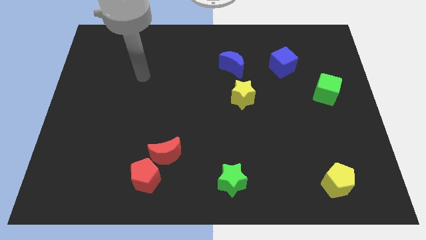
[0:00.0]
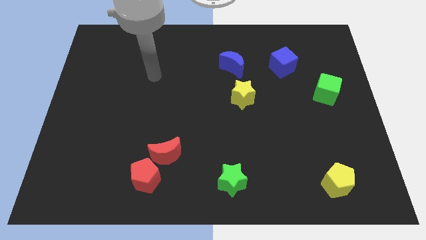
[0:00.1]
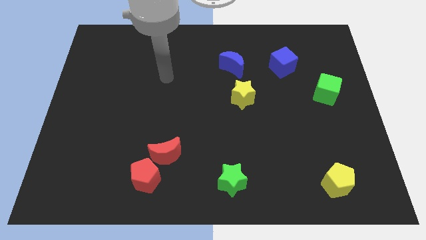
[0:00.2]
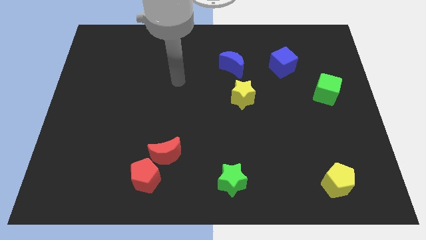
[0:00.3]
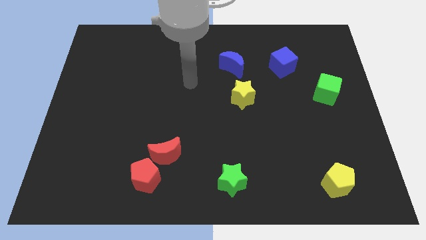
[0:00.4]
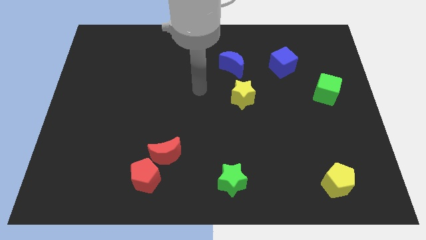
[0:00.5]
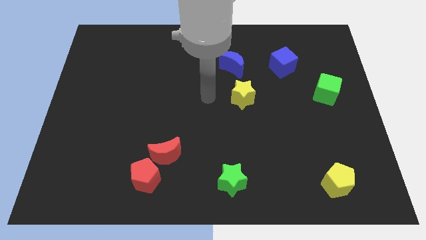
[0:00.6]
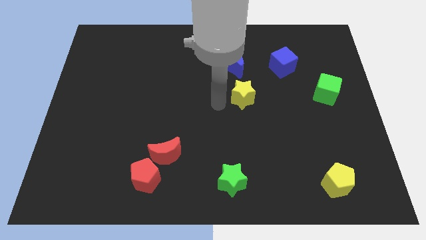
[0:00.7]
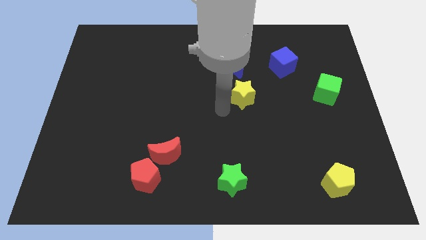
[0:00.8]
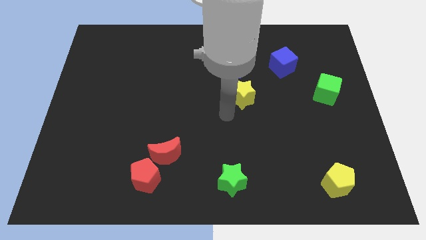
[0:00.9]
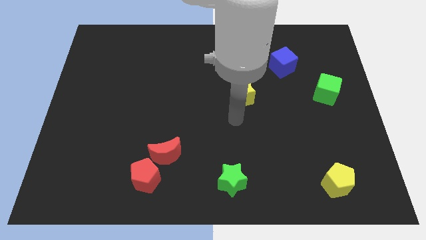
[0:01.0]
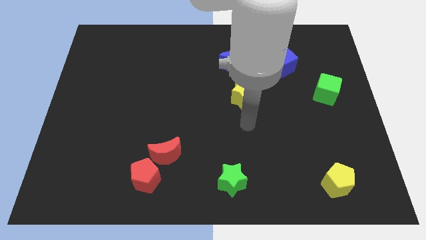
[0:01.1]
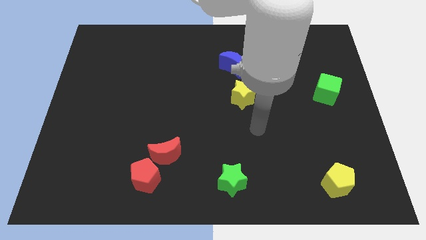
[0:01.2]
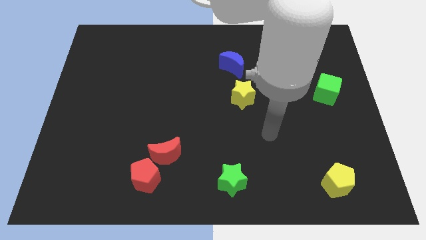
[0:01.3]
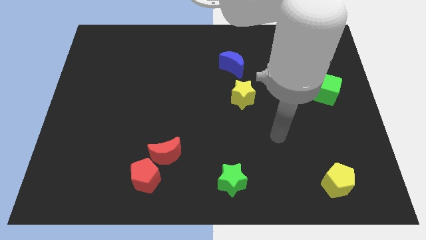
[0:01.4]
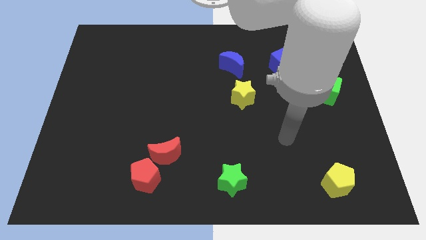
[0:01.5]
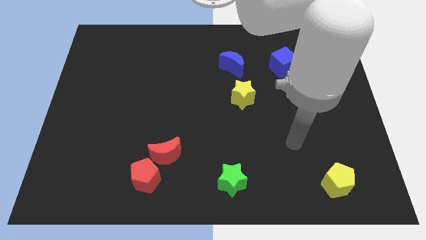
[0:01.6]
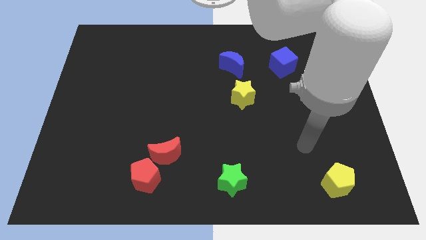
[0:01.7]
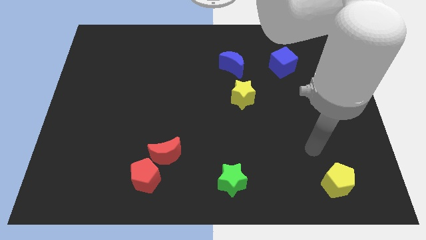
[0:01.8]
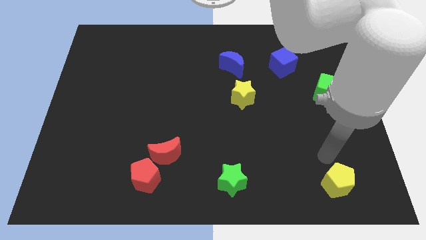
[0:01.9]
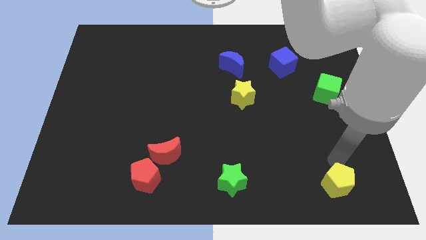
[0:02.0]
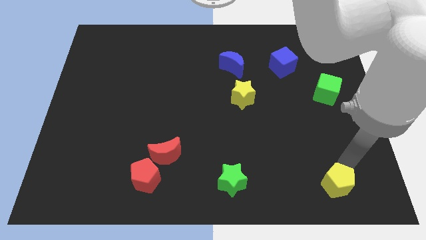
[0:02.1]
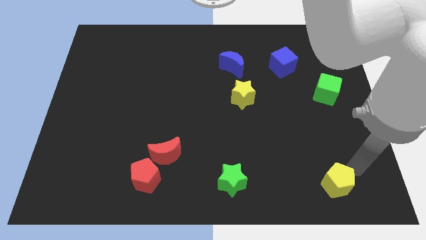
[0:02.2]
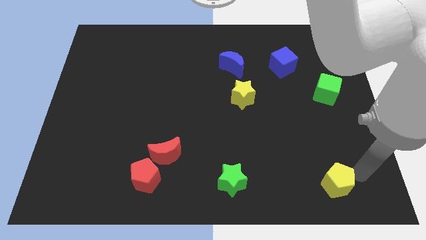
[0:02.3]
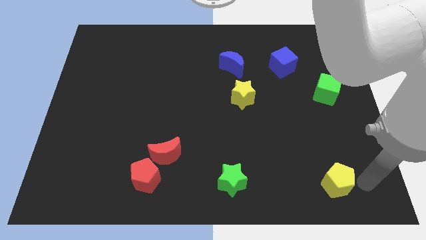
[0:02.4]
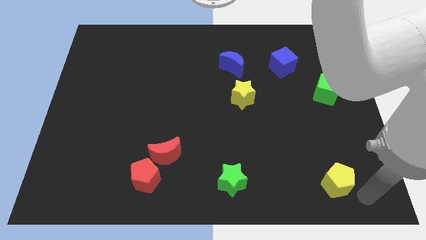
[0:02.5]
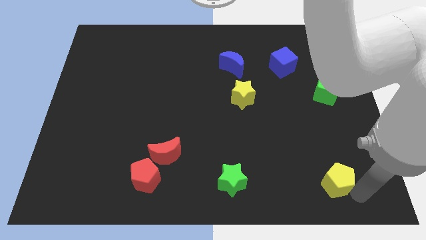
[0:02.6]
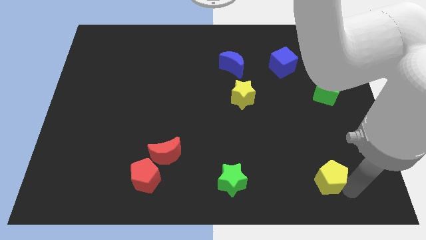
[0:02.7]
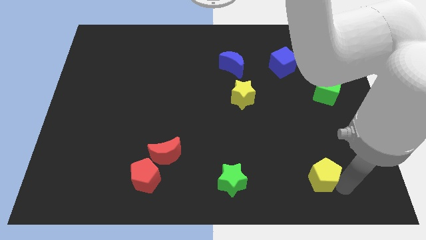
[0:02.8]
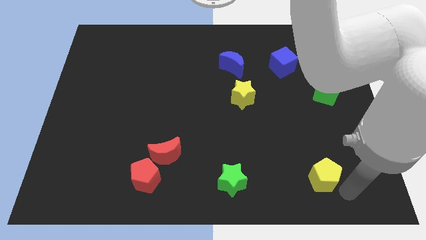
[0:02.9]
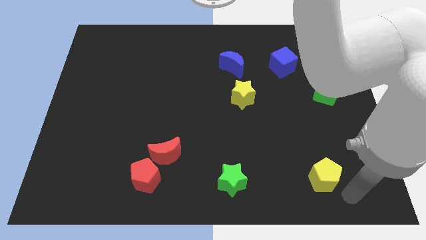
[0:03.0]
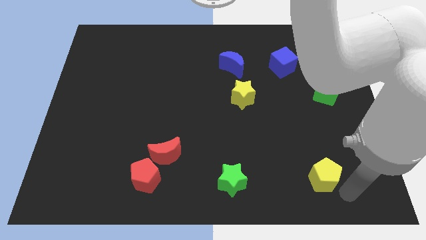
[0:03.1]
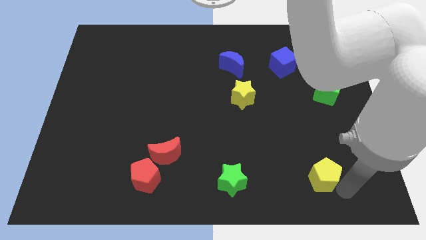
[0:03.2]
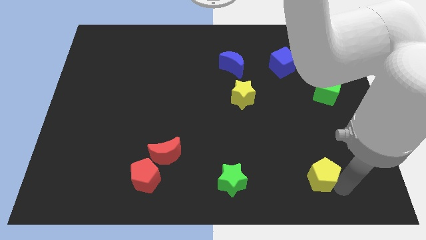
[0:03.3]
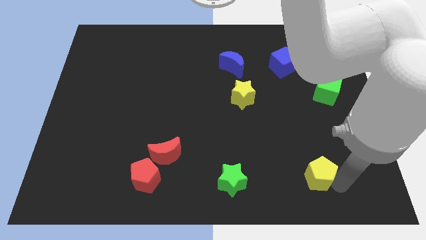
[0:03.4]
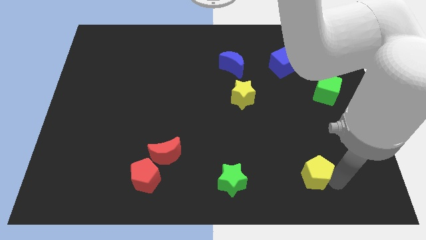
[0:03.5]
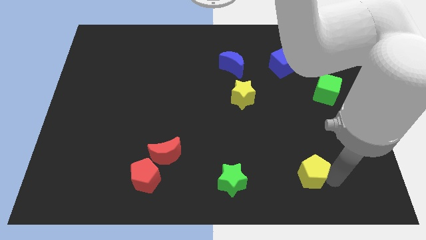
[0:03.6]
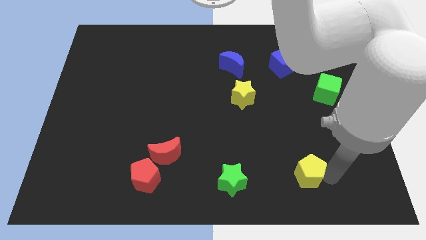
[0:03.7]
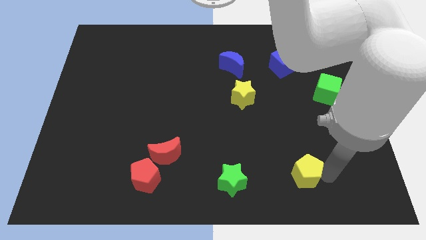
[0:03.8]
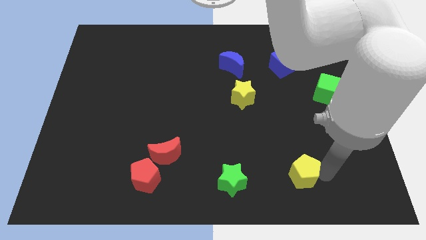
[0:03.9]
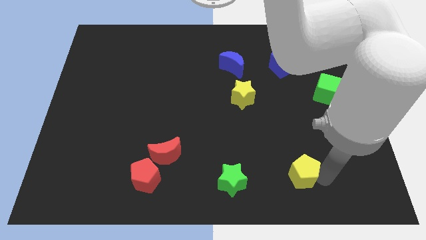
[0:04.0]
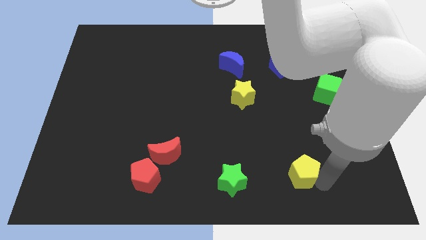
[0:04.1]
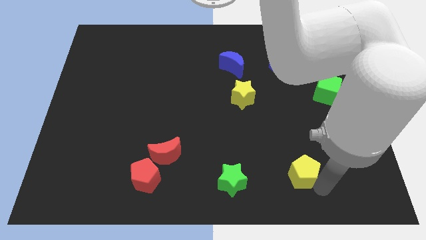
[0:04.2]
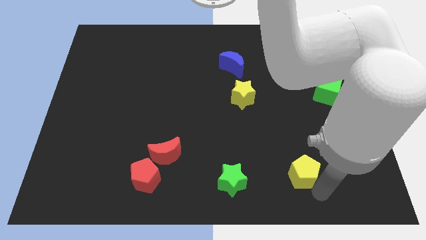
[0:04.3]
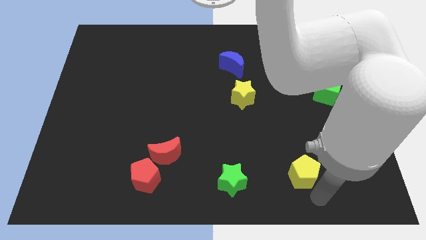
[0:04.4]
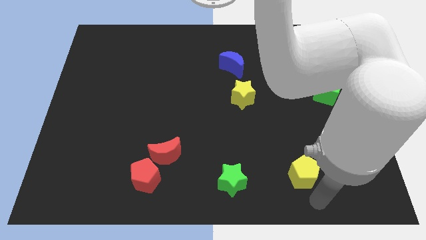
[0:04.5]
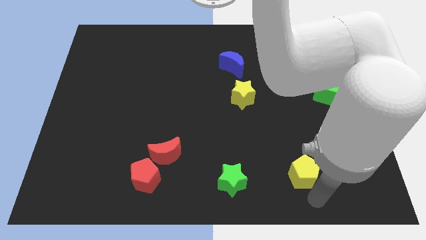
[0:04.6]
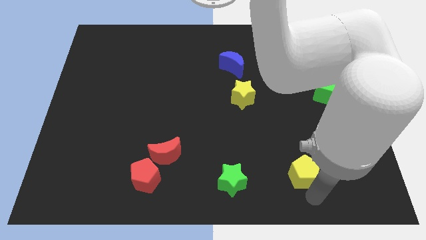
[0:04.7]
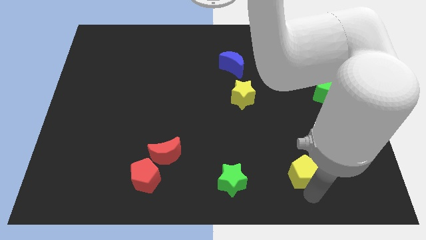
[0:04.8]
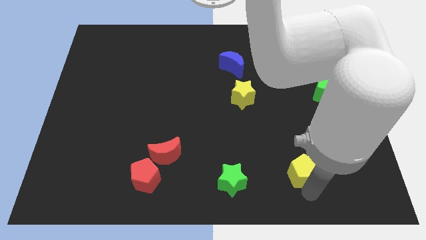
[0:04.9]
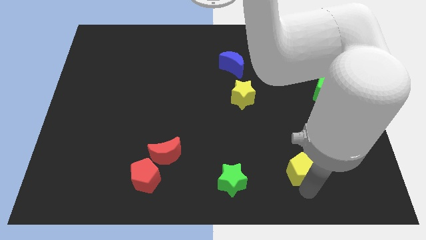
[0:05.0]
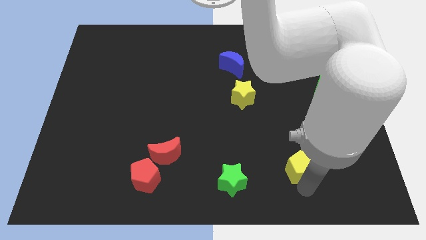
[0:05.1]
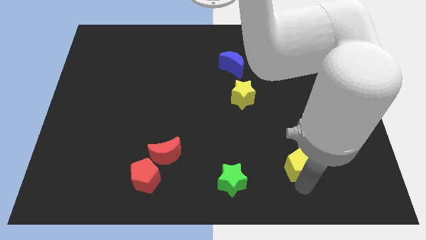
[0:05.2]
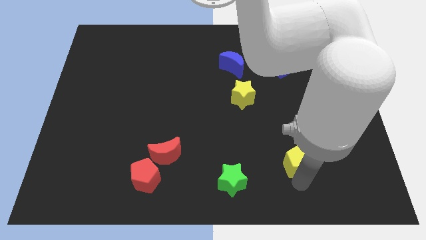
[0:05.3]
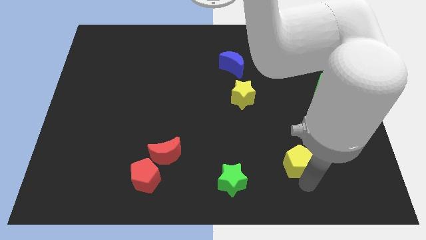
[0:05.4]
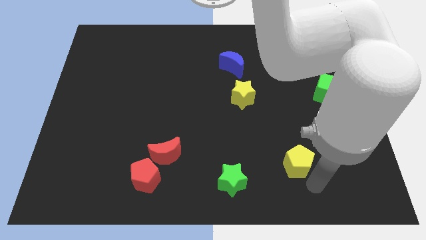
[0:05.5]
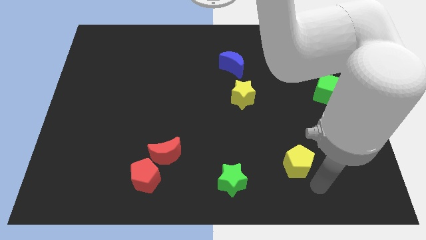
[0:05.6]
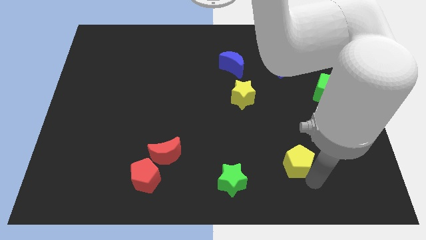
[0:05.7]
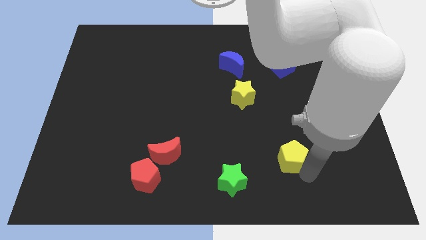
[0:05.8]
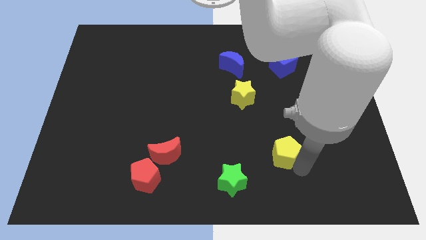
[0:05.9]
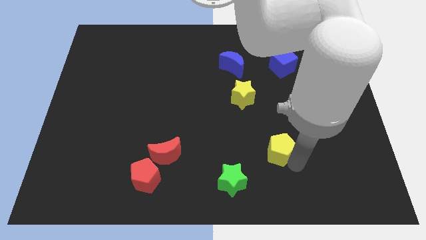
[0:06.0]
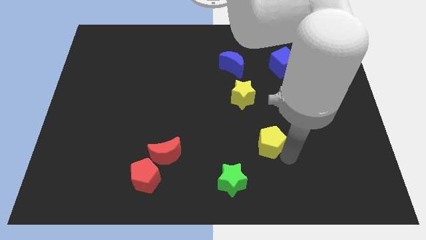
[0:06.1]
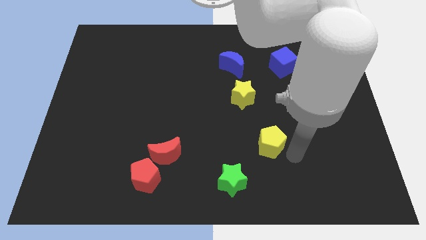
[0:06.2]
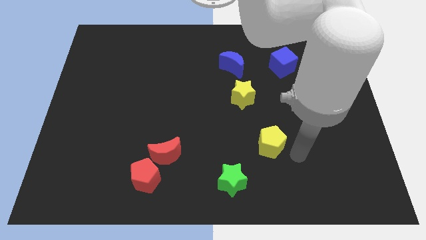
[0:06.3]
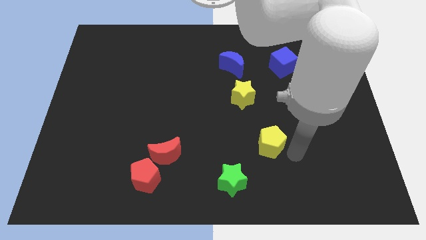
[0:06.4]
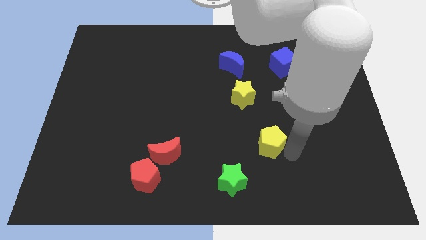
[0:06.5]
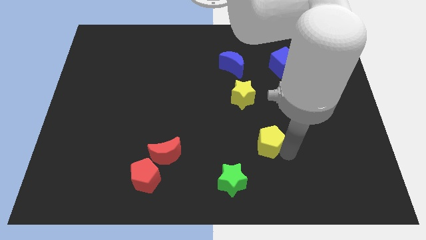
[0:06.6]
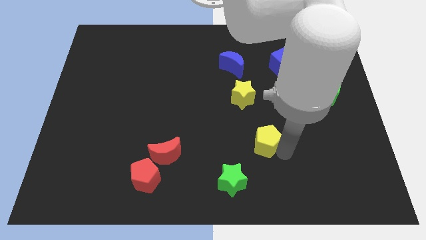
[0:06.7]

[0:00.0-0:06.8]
slide the yellow pentagon below the yellow star
